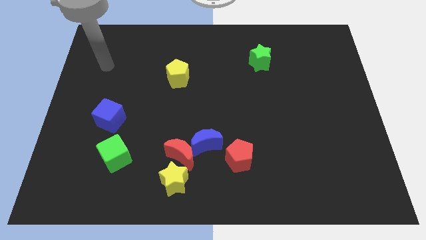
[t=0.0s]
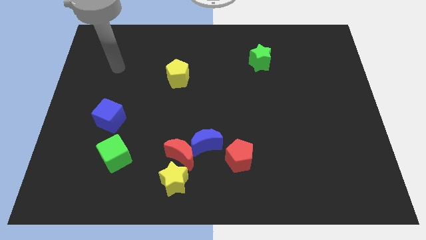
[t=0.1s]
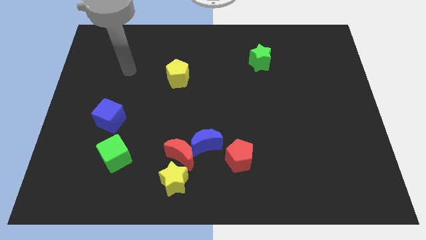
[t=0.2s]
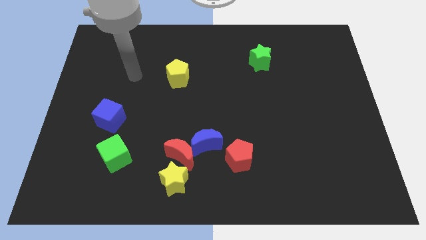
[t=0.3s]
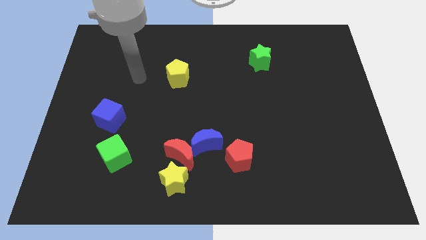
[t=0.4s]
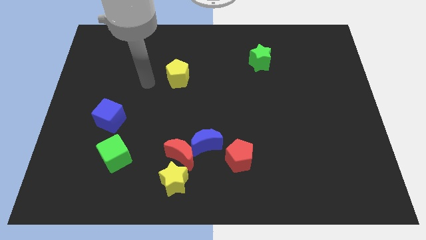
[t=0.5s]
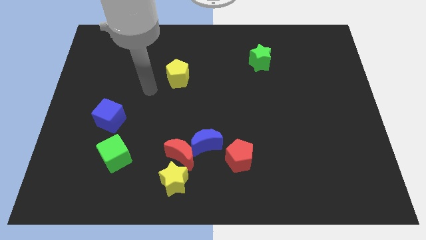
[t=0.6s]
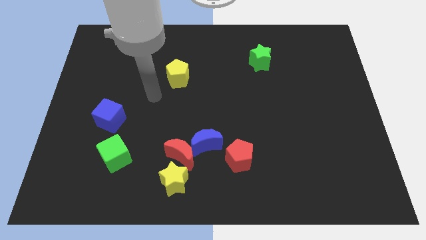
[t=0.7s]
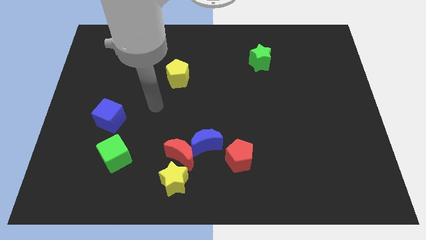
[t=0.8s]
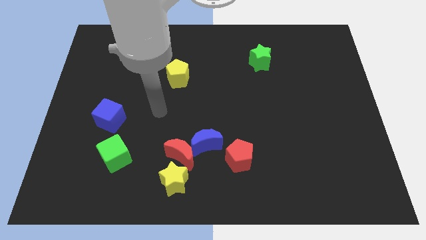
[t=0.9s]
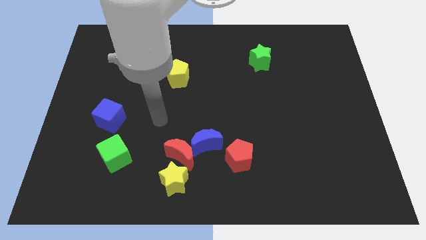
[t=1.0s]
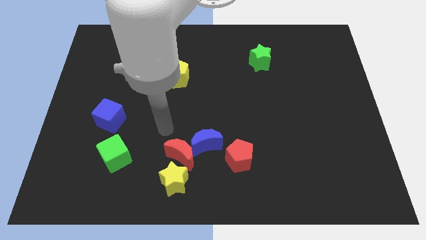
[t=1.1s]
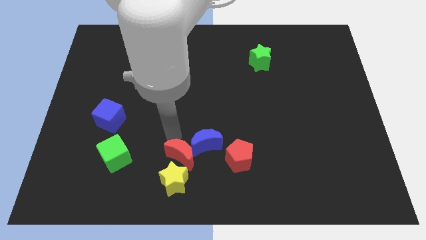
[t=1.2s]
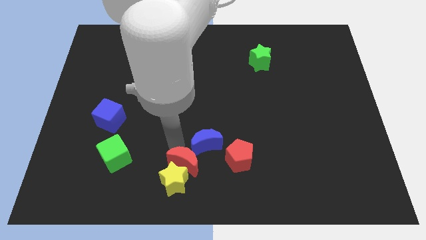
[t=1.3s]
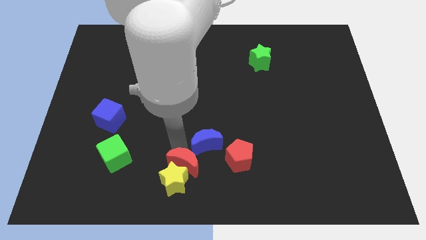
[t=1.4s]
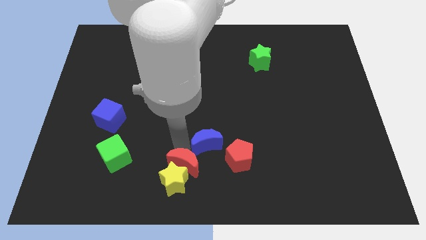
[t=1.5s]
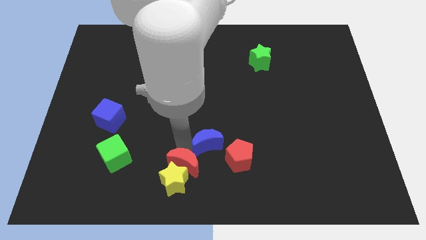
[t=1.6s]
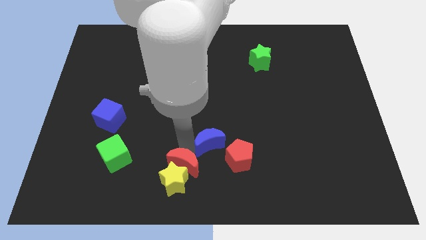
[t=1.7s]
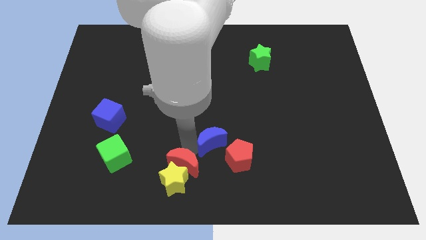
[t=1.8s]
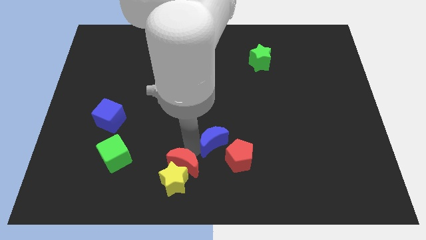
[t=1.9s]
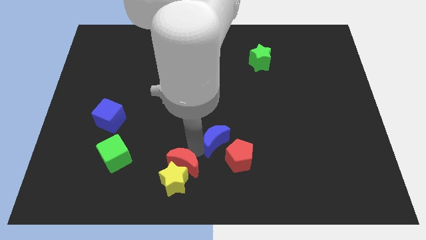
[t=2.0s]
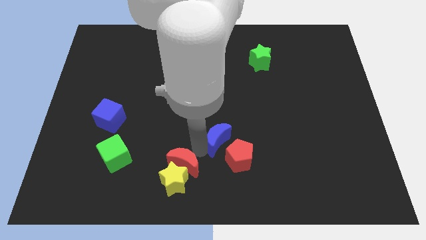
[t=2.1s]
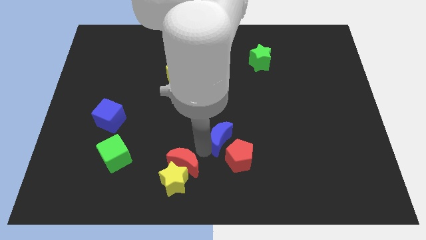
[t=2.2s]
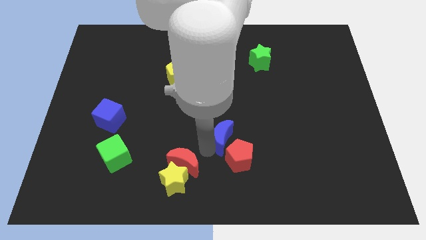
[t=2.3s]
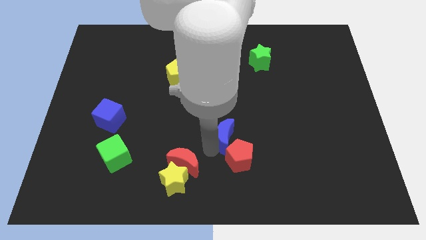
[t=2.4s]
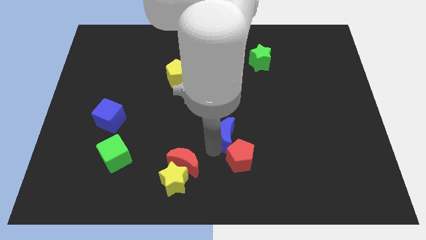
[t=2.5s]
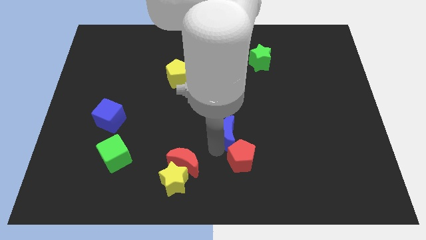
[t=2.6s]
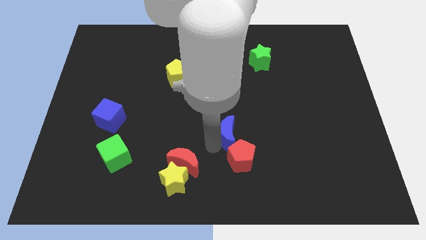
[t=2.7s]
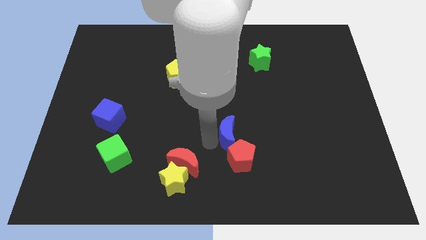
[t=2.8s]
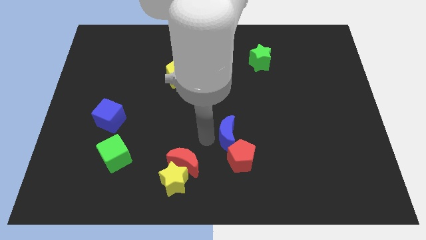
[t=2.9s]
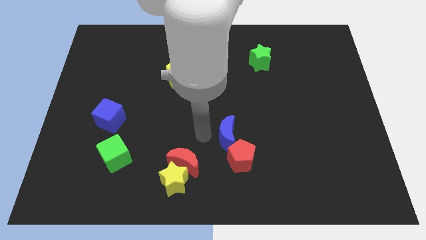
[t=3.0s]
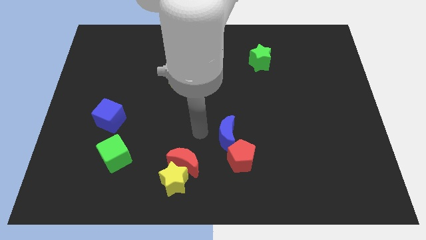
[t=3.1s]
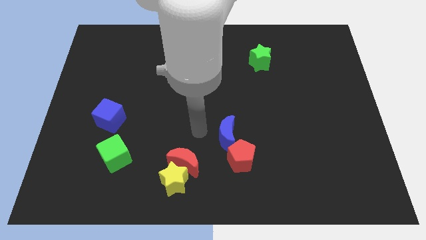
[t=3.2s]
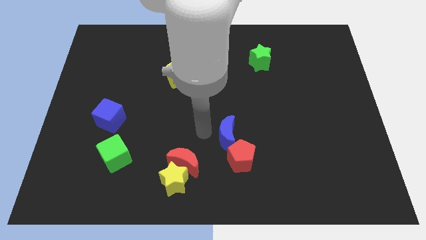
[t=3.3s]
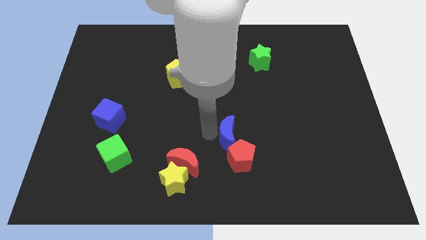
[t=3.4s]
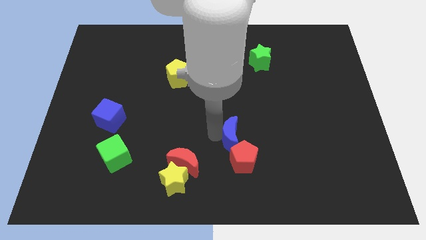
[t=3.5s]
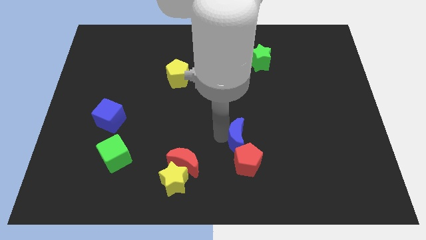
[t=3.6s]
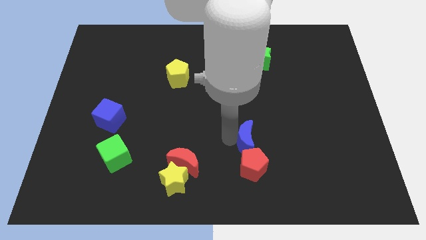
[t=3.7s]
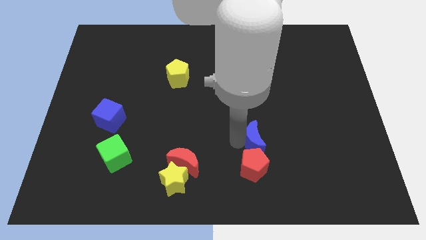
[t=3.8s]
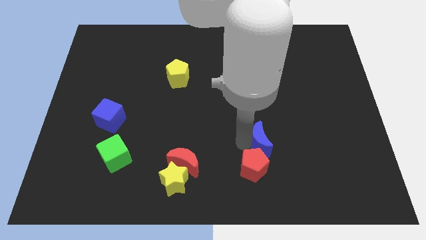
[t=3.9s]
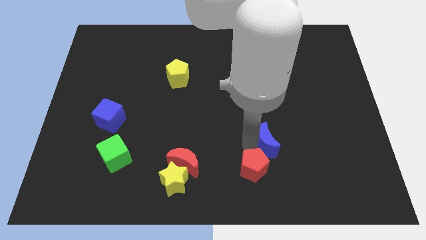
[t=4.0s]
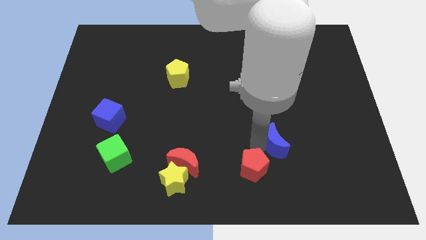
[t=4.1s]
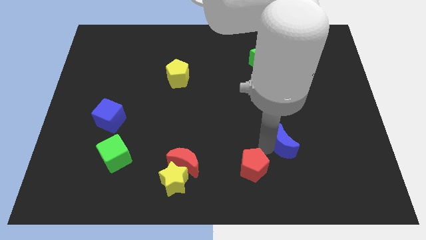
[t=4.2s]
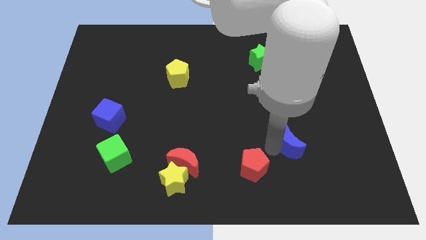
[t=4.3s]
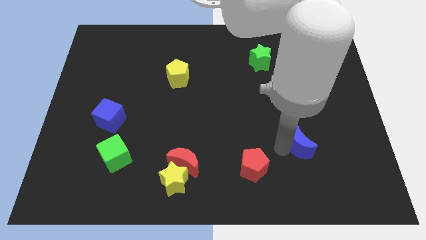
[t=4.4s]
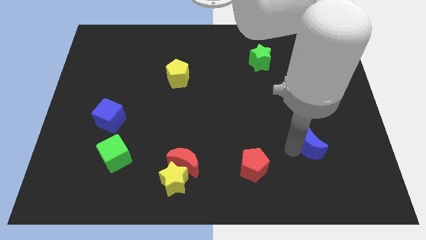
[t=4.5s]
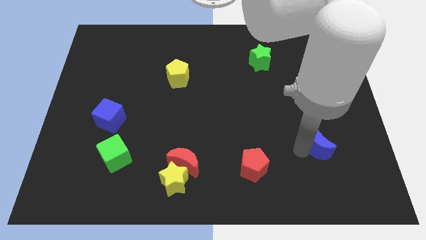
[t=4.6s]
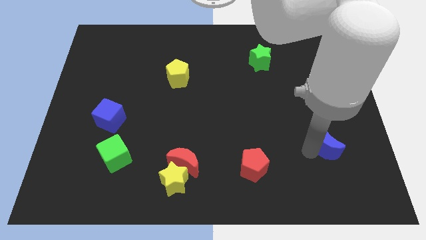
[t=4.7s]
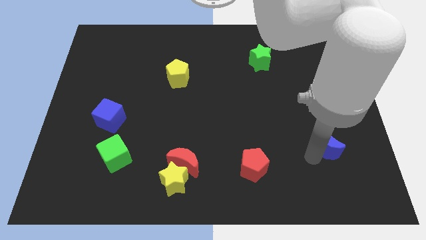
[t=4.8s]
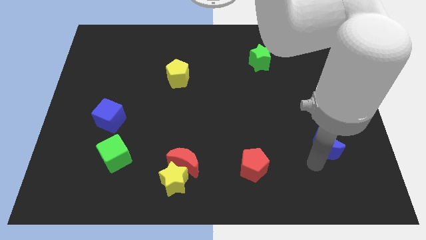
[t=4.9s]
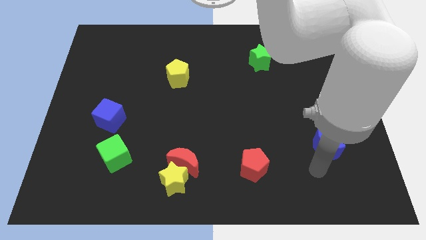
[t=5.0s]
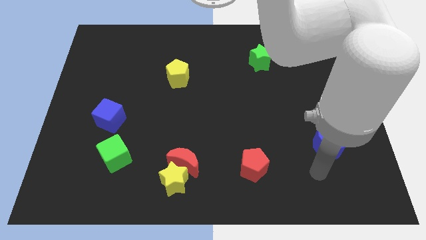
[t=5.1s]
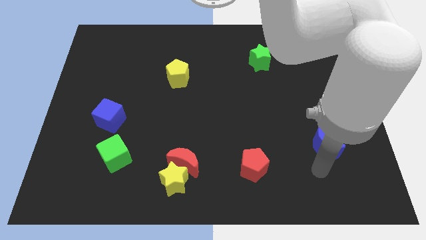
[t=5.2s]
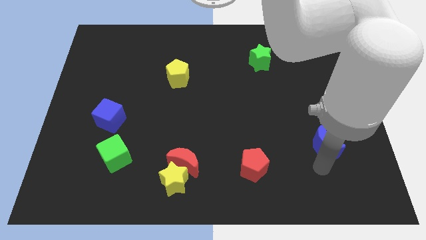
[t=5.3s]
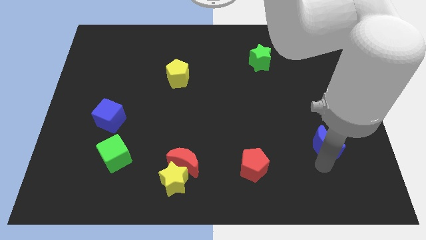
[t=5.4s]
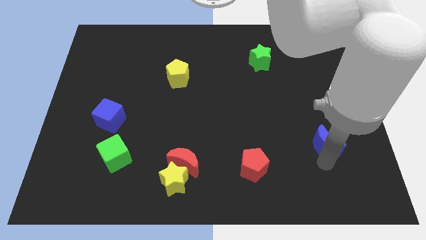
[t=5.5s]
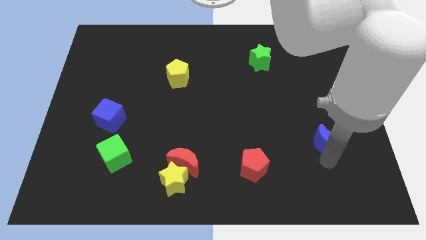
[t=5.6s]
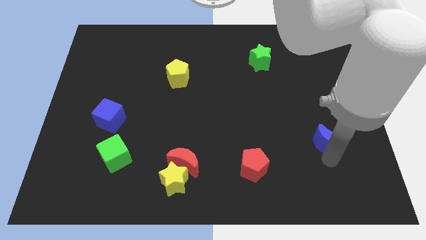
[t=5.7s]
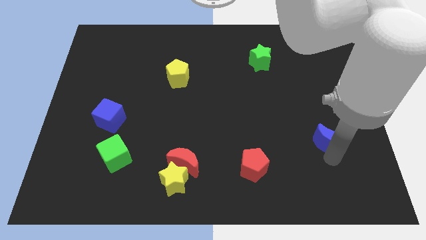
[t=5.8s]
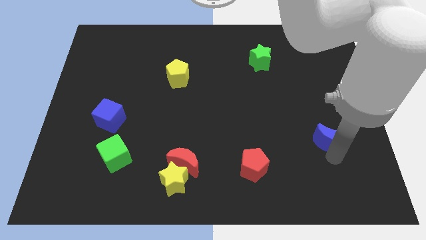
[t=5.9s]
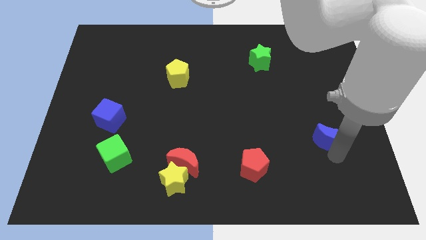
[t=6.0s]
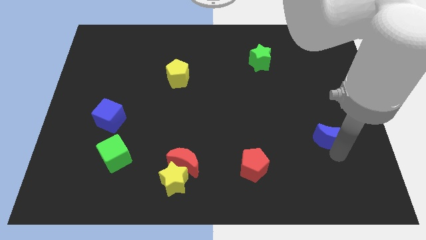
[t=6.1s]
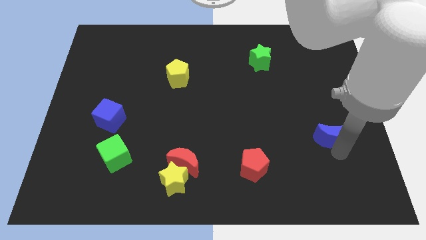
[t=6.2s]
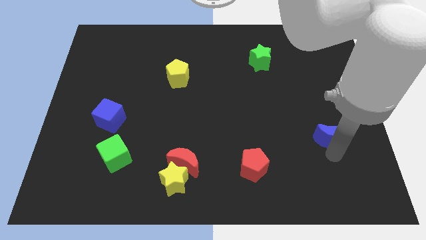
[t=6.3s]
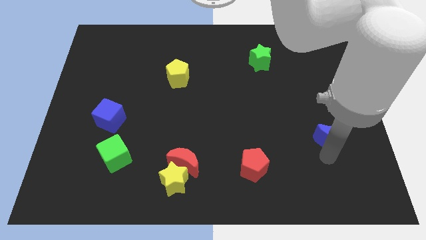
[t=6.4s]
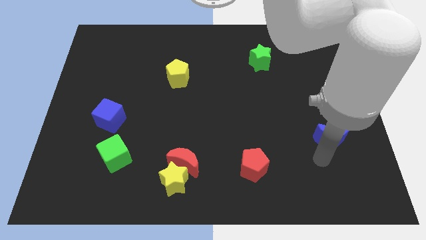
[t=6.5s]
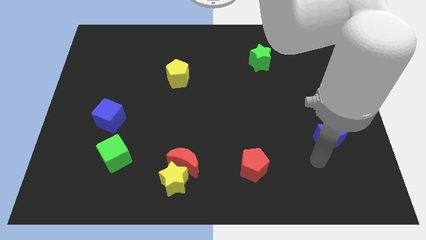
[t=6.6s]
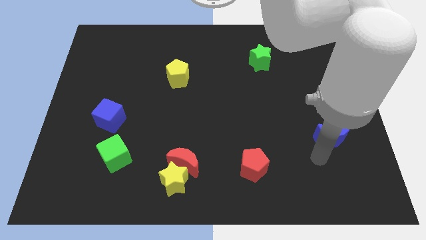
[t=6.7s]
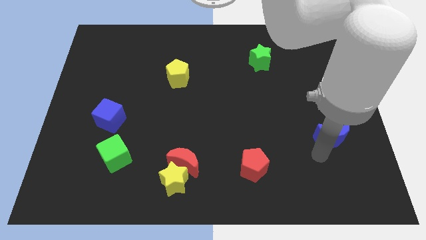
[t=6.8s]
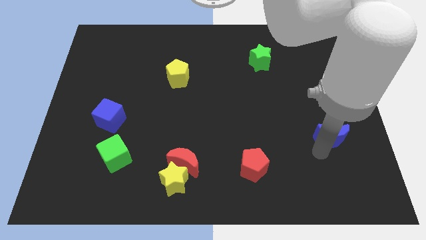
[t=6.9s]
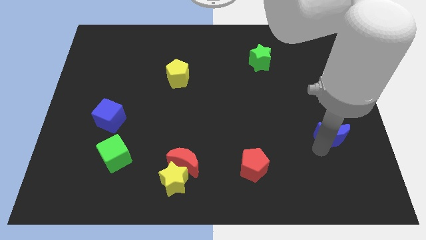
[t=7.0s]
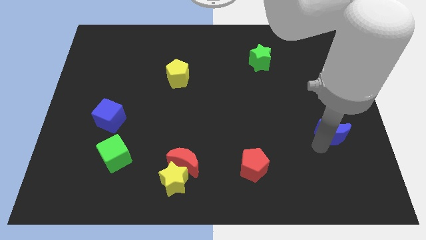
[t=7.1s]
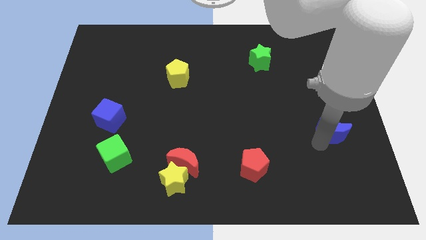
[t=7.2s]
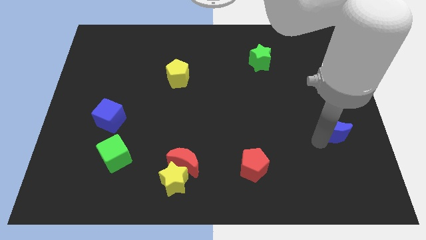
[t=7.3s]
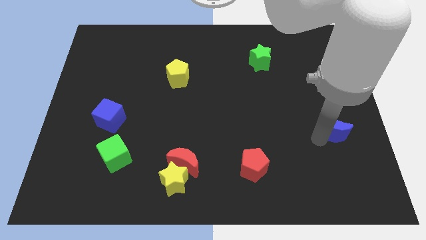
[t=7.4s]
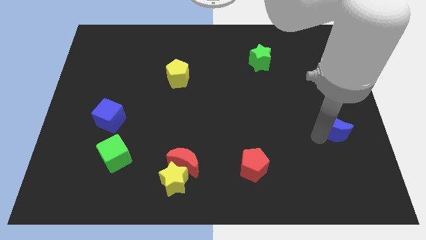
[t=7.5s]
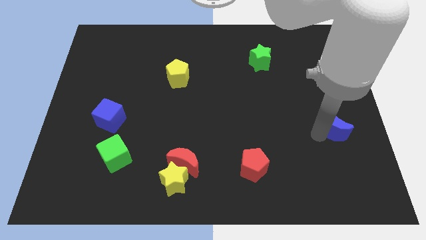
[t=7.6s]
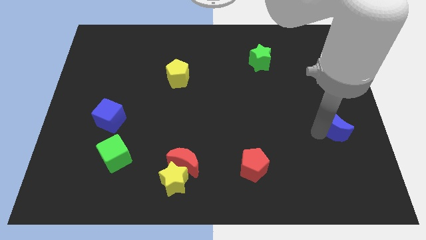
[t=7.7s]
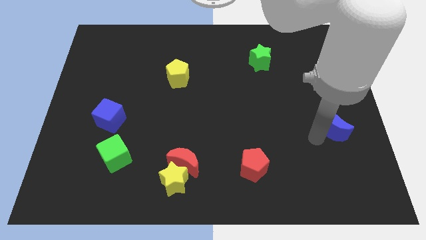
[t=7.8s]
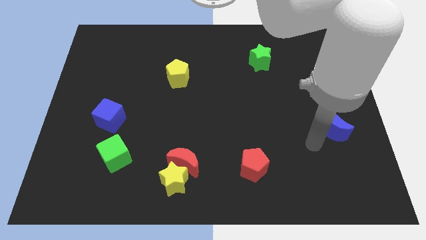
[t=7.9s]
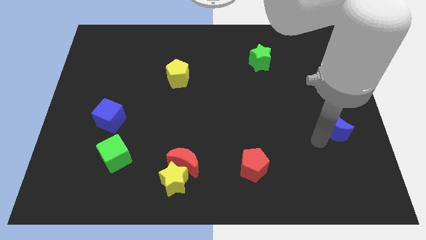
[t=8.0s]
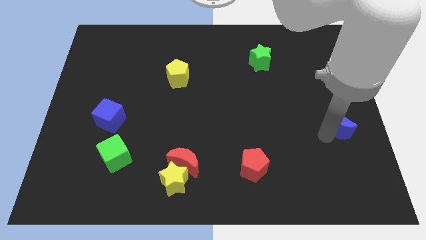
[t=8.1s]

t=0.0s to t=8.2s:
push the blue moon to the right side of the board
